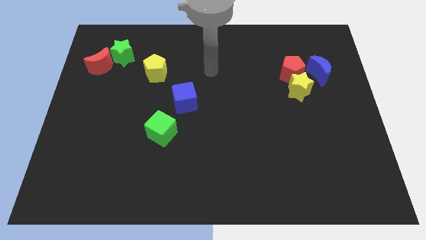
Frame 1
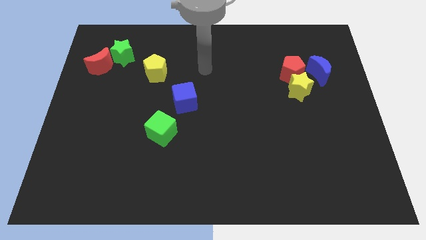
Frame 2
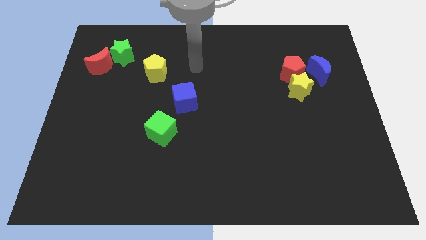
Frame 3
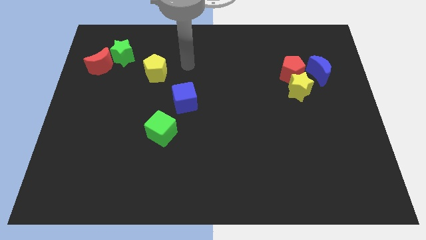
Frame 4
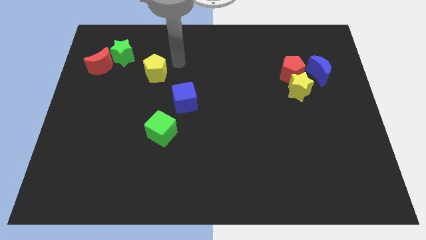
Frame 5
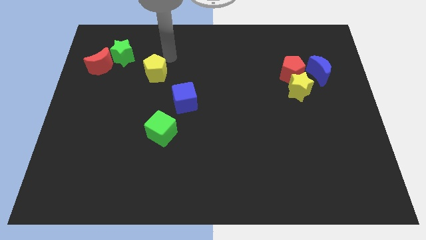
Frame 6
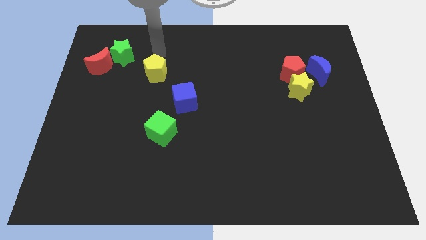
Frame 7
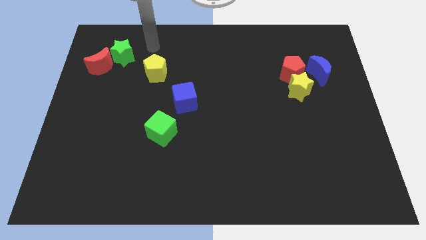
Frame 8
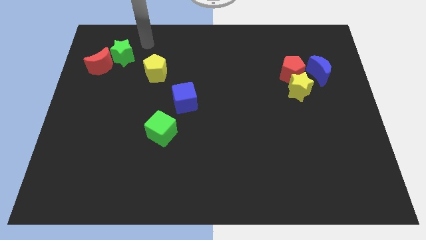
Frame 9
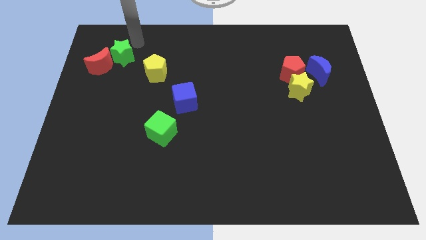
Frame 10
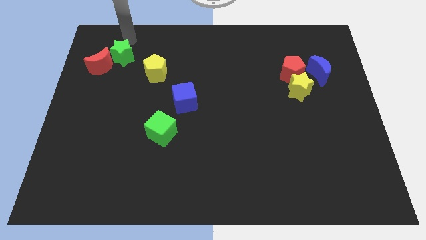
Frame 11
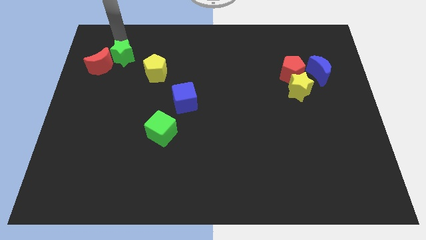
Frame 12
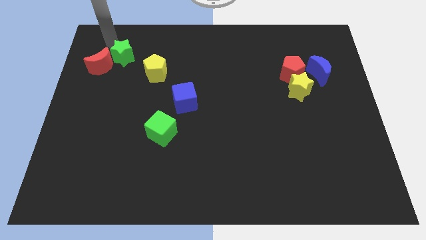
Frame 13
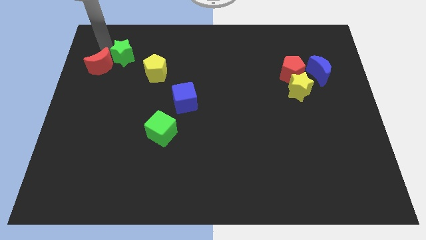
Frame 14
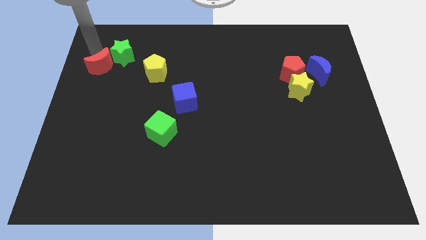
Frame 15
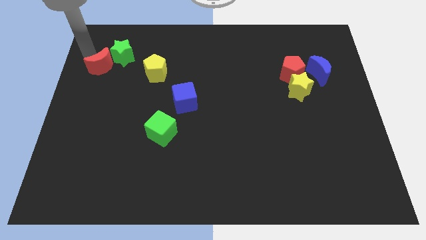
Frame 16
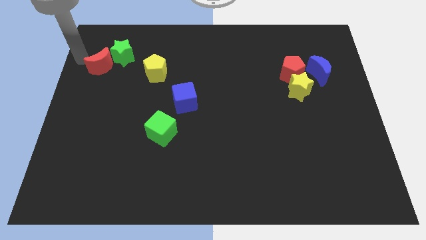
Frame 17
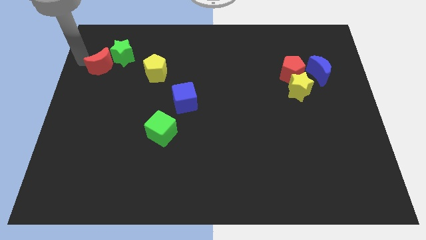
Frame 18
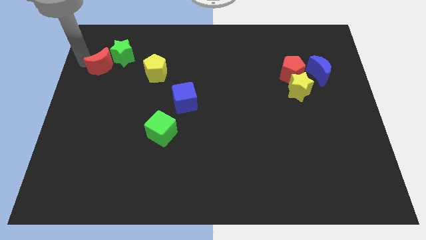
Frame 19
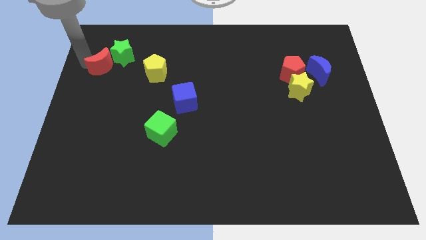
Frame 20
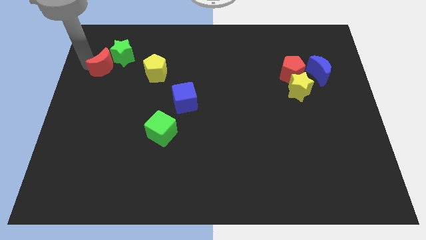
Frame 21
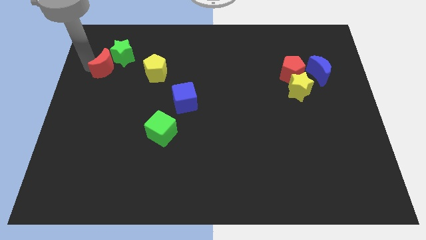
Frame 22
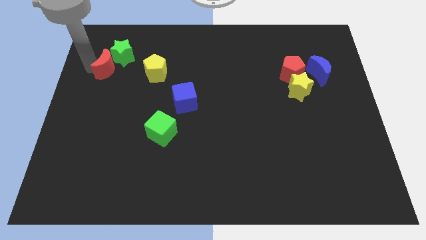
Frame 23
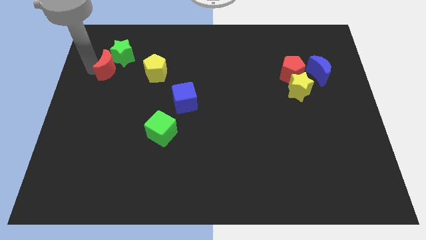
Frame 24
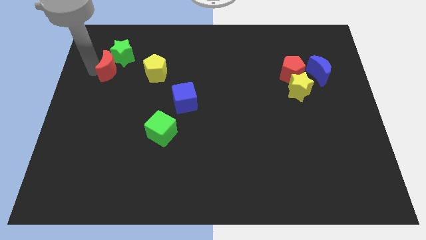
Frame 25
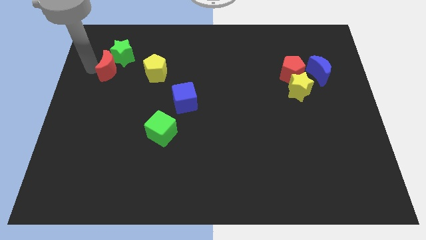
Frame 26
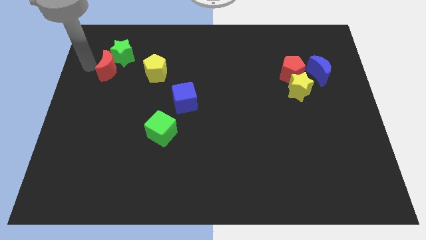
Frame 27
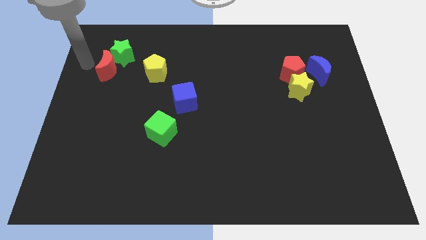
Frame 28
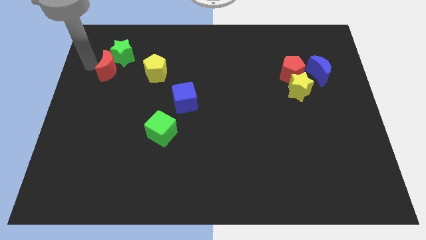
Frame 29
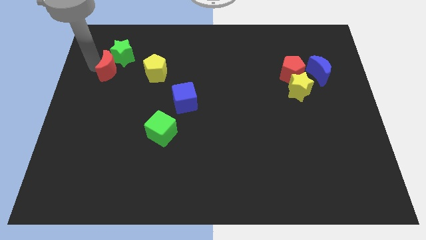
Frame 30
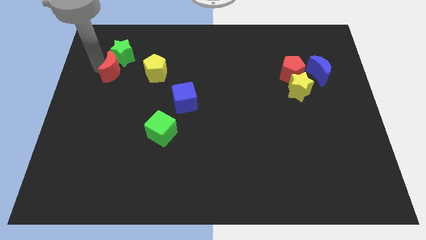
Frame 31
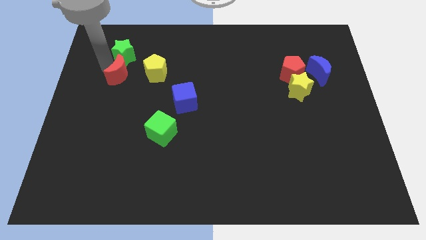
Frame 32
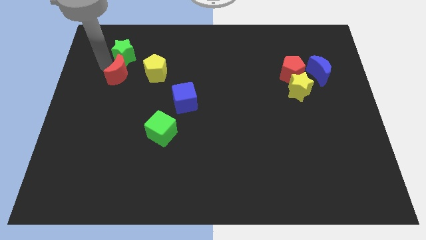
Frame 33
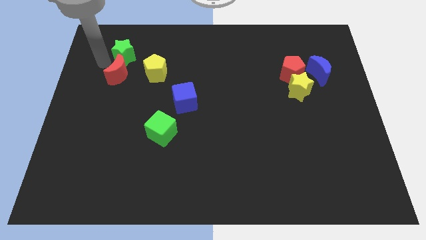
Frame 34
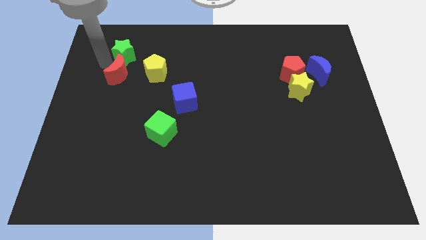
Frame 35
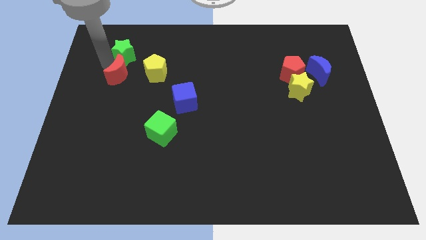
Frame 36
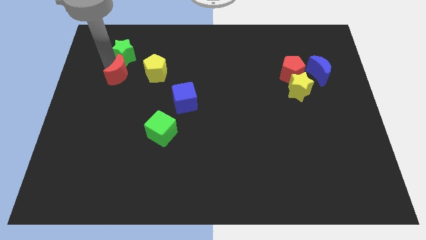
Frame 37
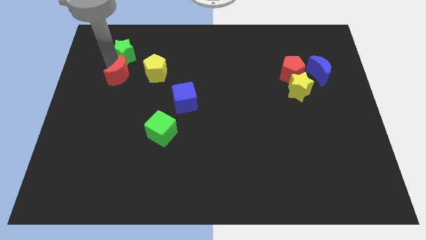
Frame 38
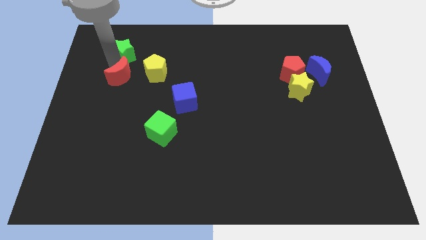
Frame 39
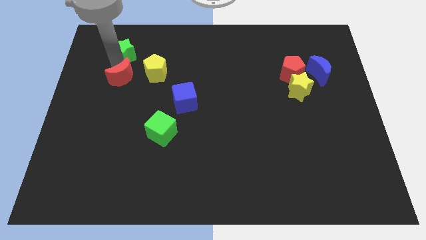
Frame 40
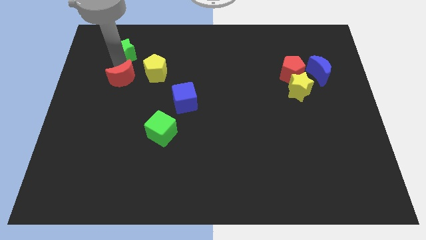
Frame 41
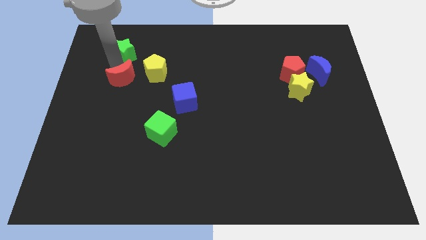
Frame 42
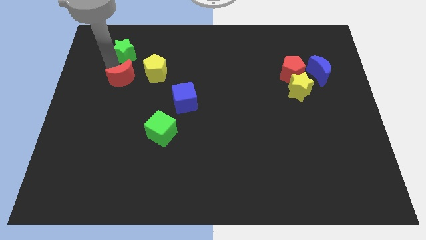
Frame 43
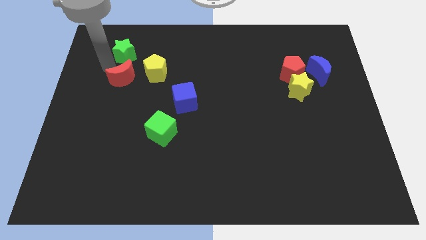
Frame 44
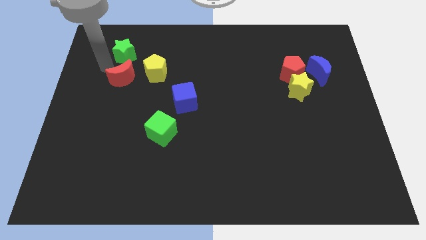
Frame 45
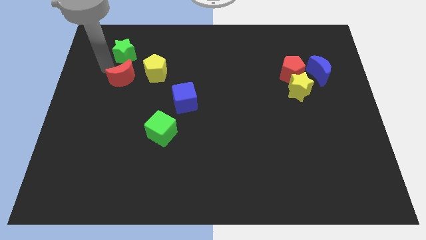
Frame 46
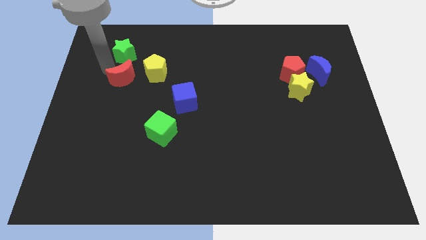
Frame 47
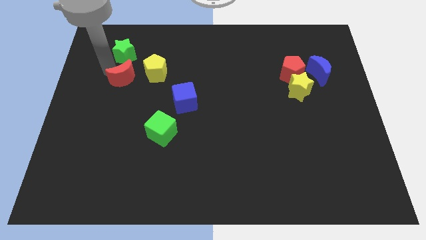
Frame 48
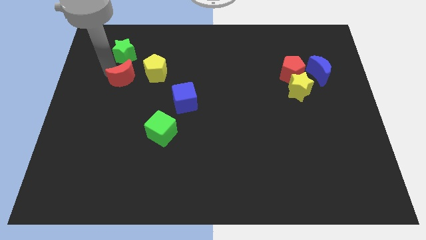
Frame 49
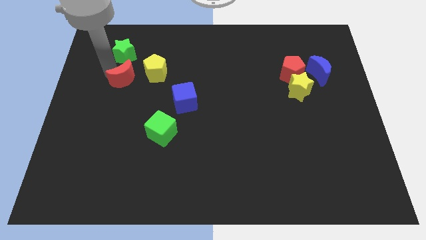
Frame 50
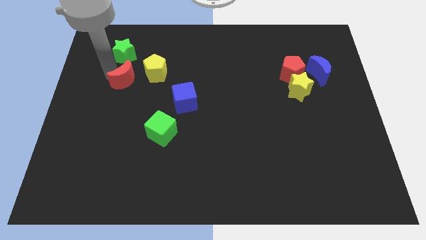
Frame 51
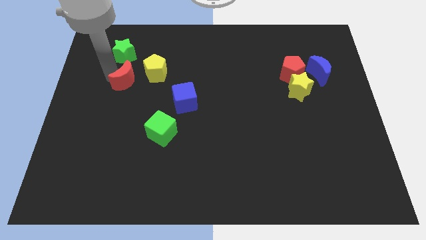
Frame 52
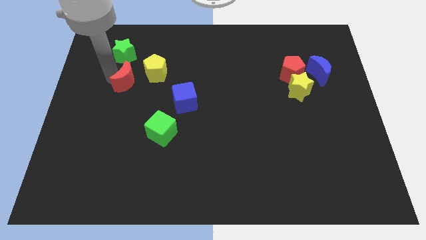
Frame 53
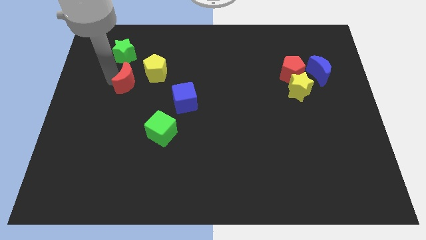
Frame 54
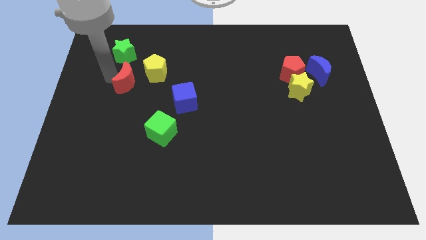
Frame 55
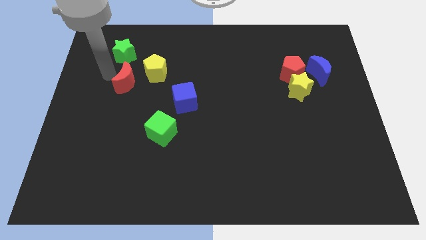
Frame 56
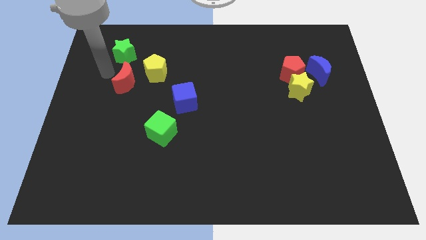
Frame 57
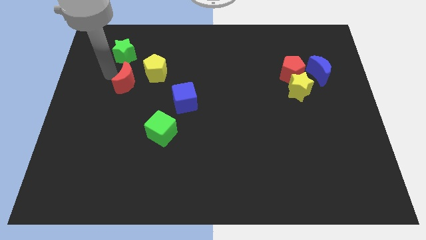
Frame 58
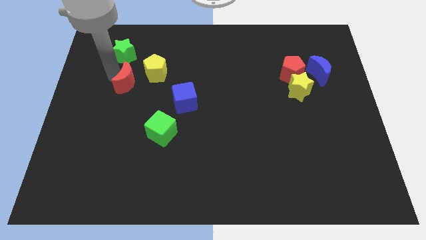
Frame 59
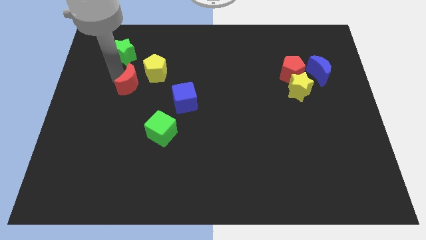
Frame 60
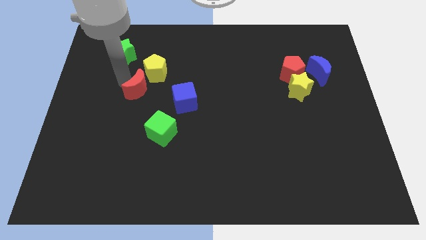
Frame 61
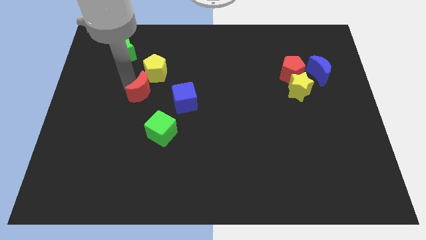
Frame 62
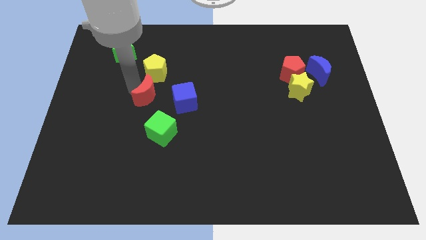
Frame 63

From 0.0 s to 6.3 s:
put the red moon to the top side of the green cube

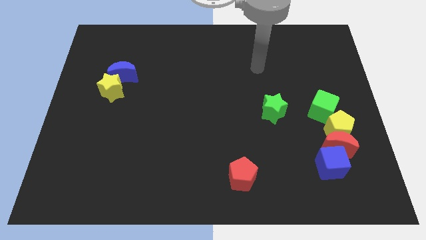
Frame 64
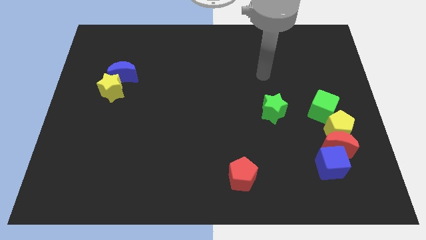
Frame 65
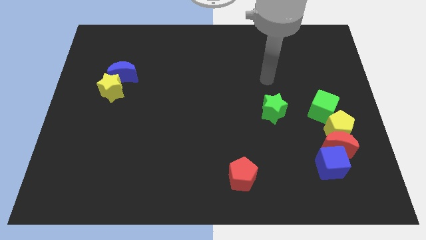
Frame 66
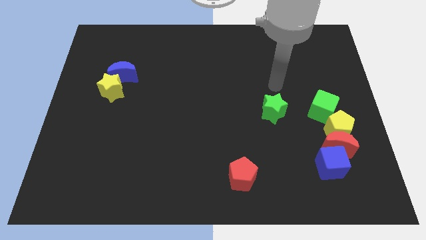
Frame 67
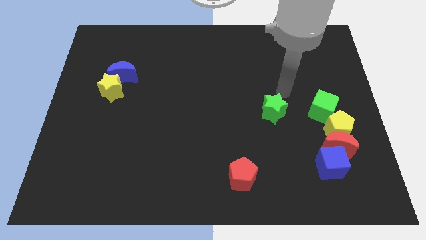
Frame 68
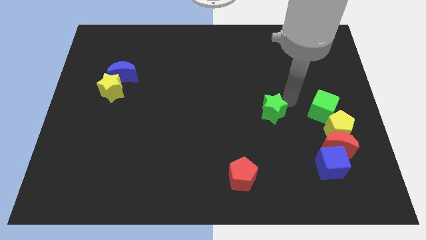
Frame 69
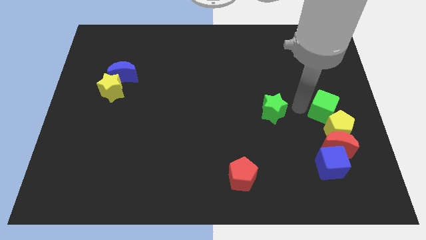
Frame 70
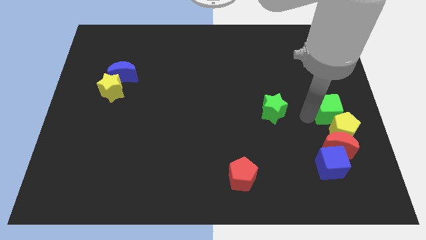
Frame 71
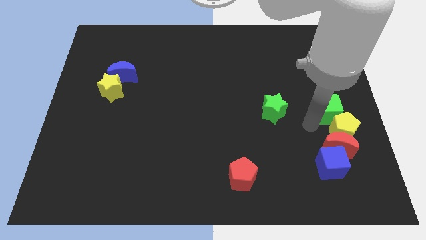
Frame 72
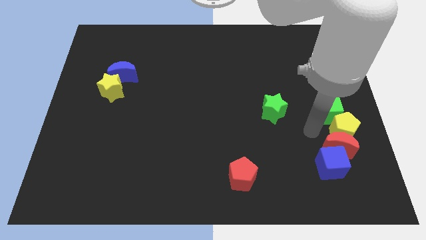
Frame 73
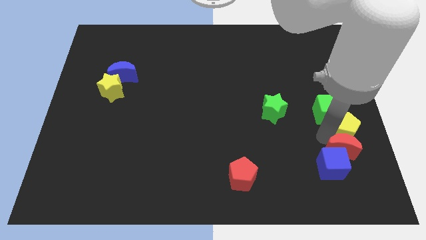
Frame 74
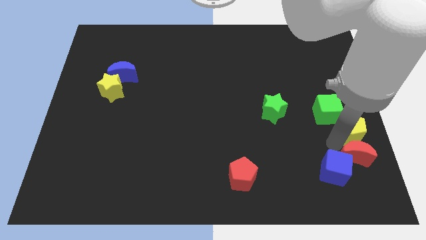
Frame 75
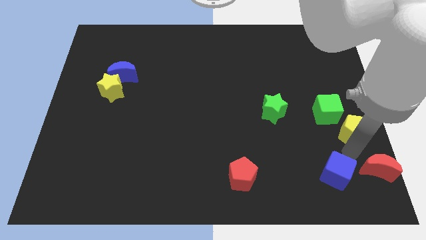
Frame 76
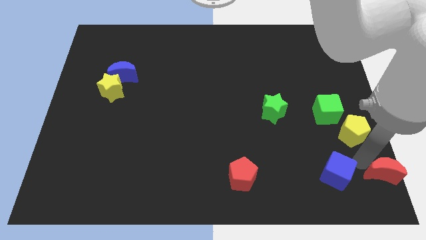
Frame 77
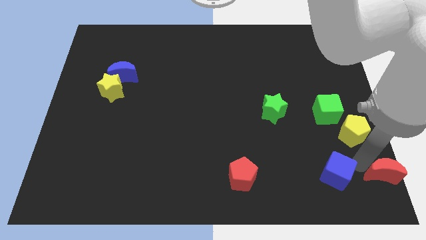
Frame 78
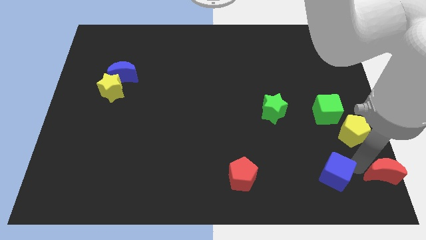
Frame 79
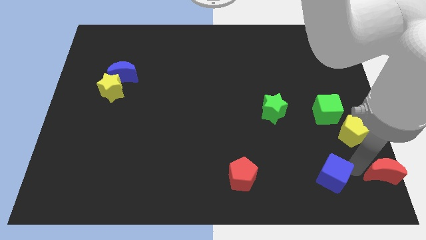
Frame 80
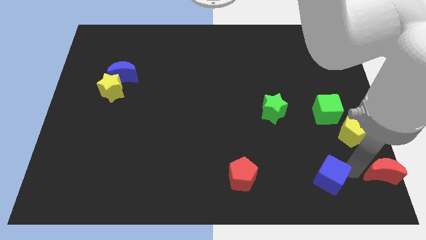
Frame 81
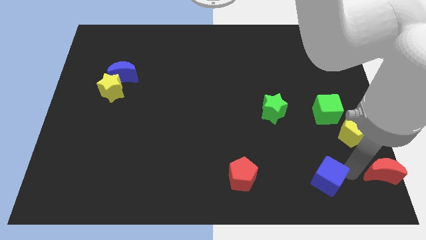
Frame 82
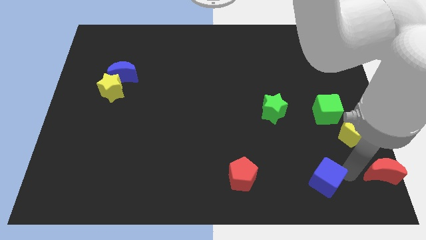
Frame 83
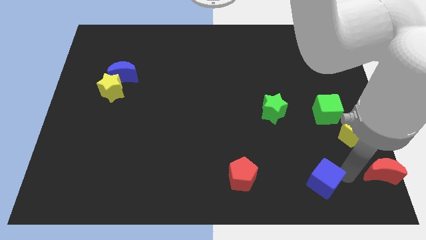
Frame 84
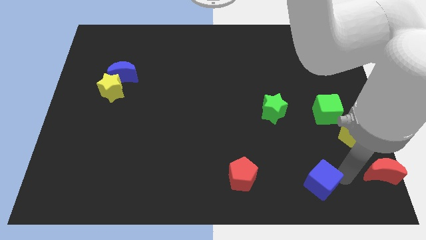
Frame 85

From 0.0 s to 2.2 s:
push the blue cube to the right of the red pentagon
